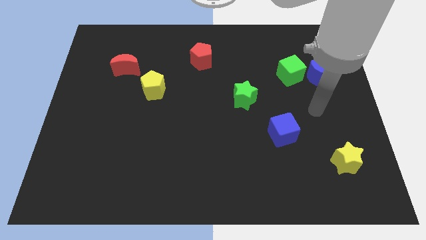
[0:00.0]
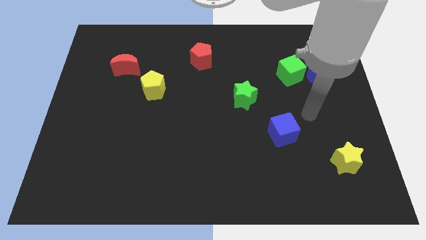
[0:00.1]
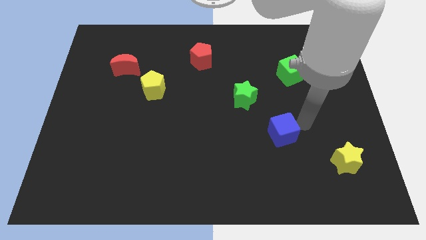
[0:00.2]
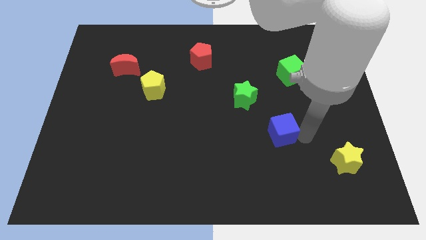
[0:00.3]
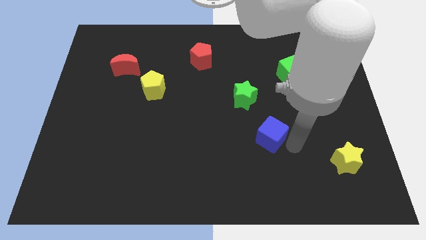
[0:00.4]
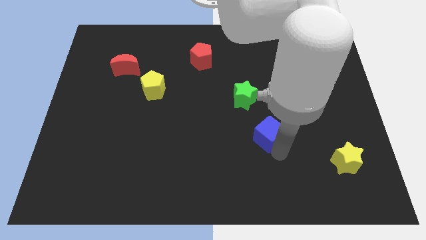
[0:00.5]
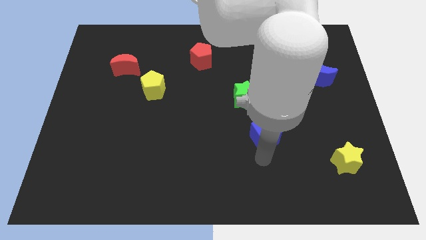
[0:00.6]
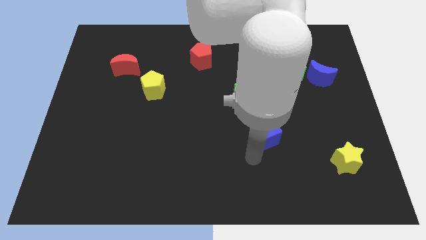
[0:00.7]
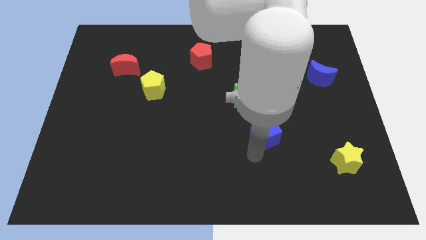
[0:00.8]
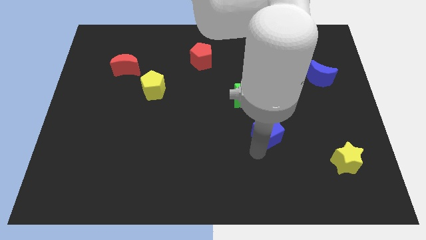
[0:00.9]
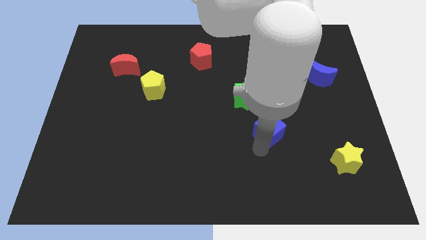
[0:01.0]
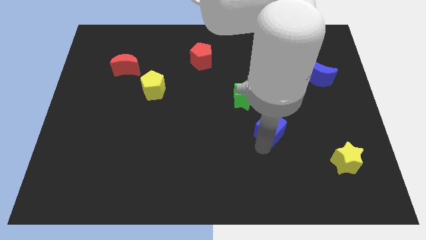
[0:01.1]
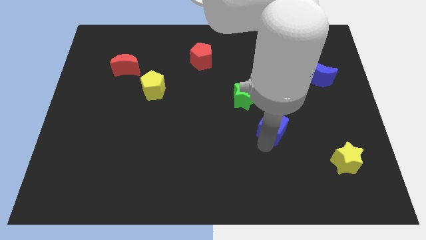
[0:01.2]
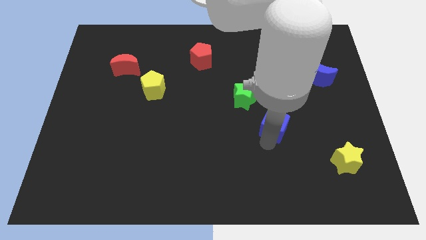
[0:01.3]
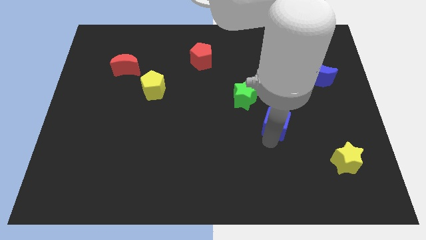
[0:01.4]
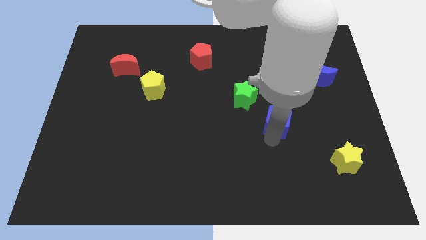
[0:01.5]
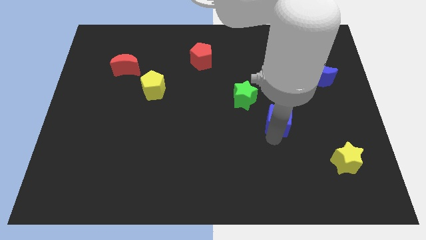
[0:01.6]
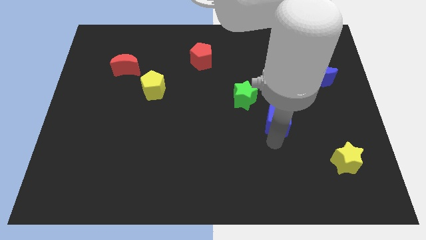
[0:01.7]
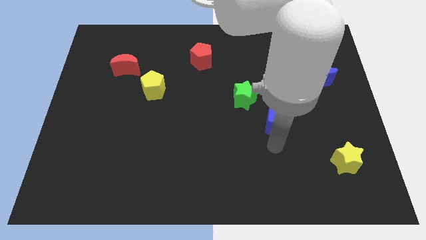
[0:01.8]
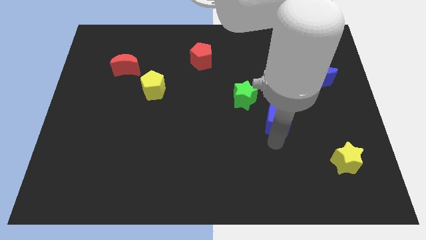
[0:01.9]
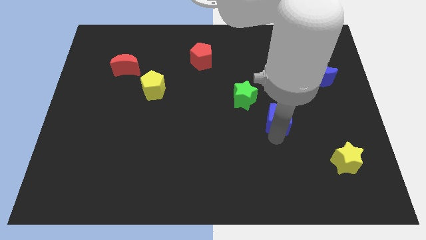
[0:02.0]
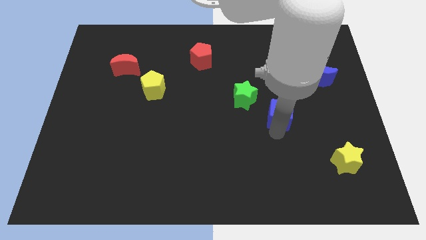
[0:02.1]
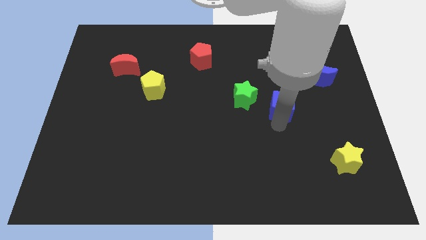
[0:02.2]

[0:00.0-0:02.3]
slide the blue cube a little bit up

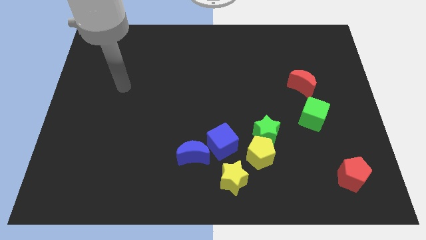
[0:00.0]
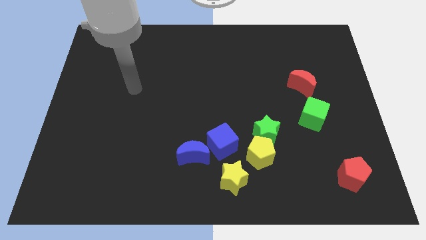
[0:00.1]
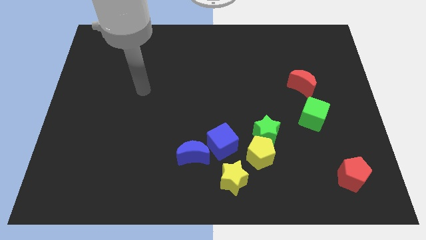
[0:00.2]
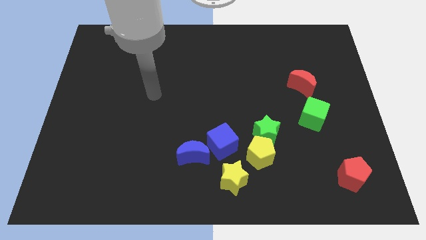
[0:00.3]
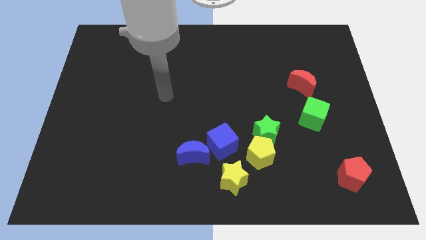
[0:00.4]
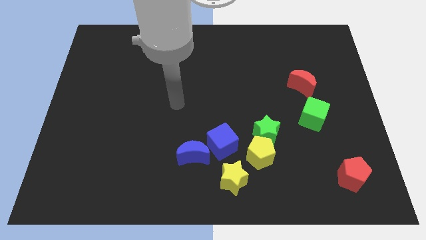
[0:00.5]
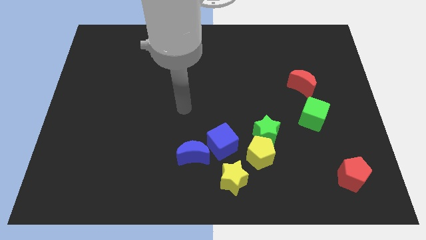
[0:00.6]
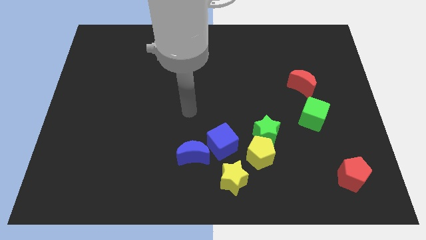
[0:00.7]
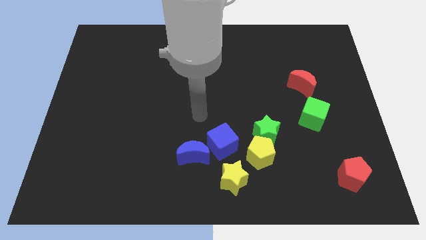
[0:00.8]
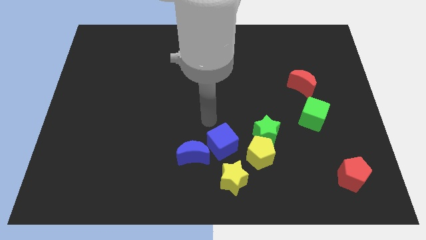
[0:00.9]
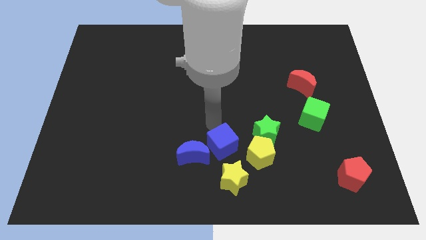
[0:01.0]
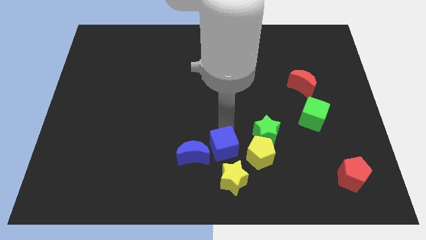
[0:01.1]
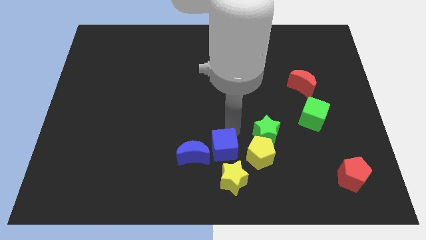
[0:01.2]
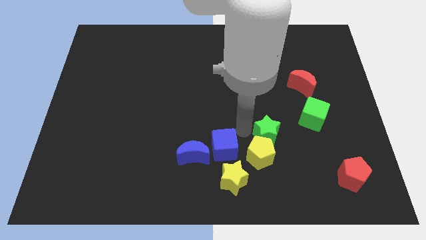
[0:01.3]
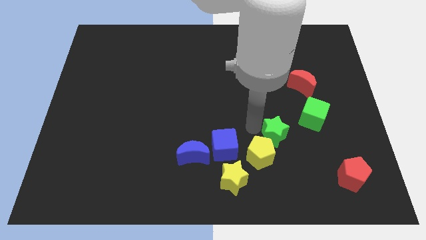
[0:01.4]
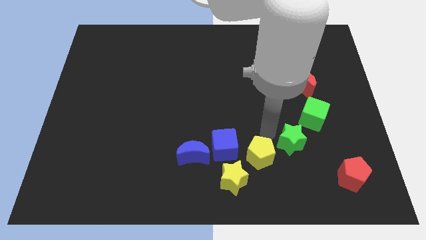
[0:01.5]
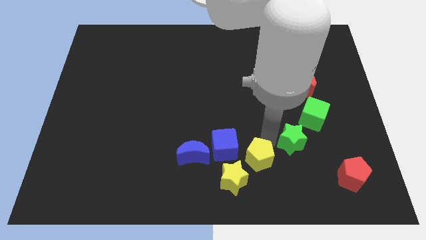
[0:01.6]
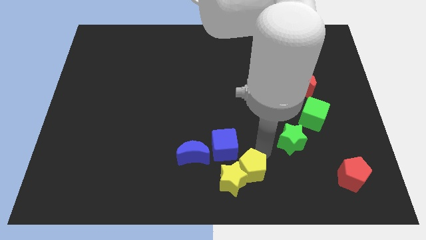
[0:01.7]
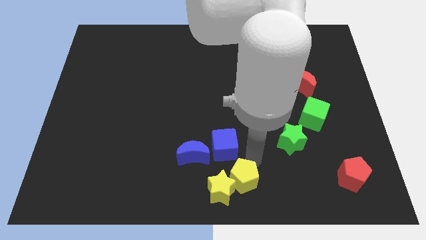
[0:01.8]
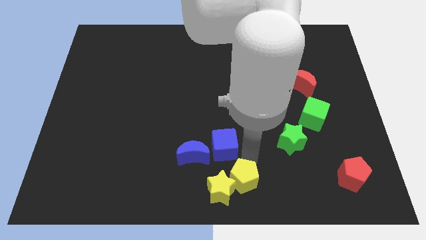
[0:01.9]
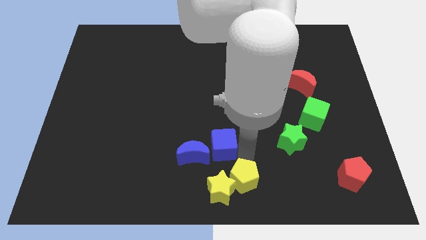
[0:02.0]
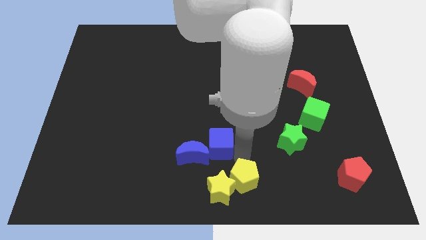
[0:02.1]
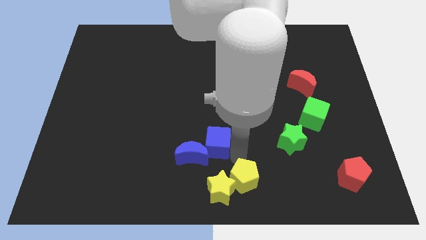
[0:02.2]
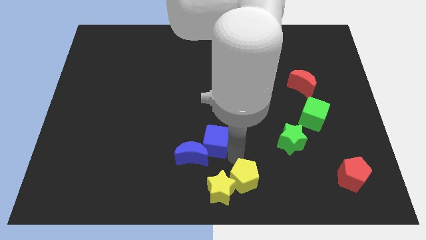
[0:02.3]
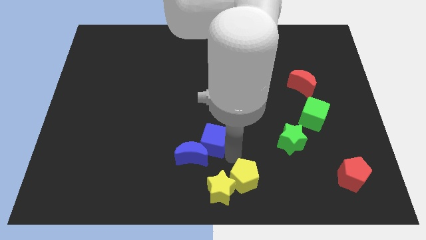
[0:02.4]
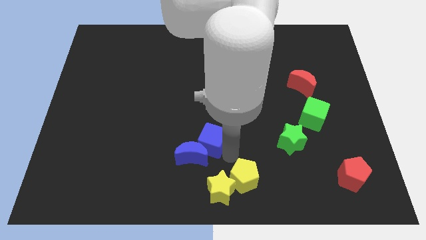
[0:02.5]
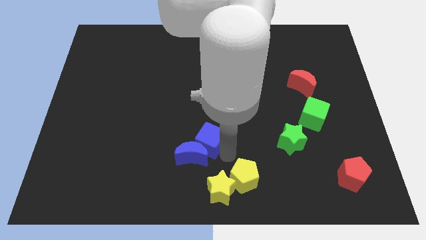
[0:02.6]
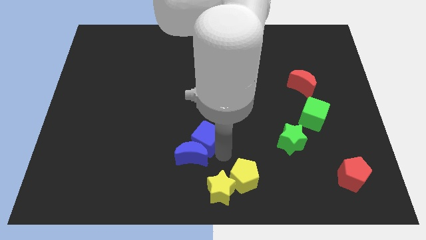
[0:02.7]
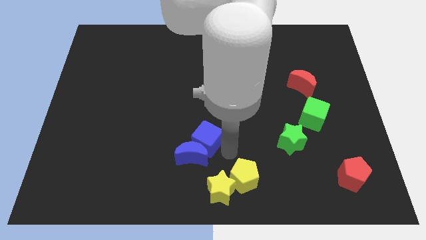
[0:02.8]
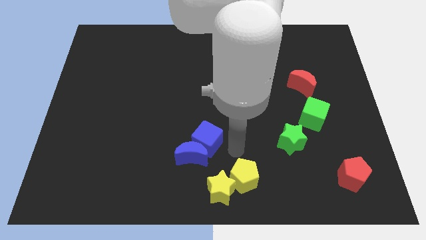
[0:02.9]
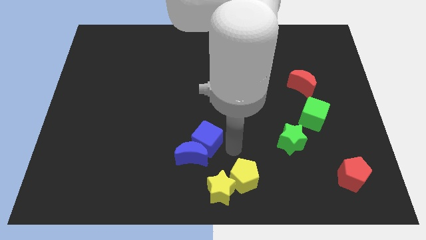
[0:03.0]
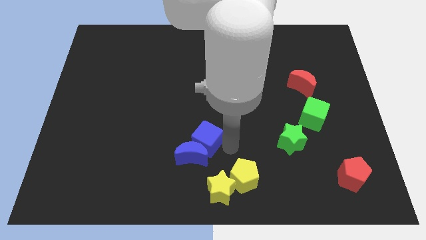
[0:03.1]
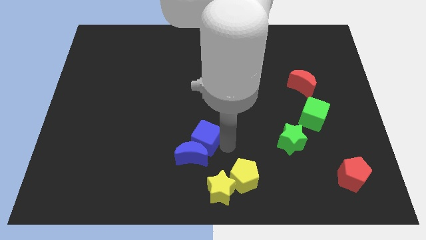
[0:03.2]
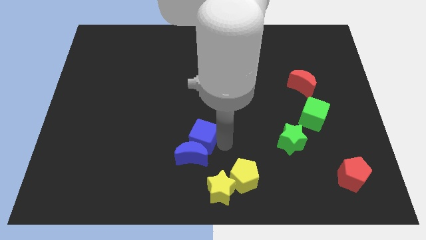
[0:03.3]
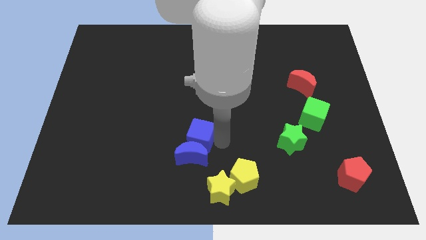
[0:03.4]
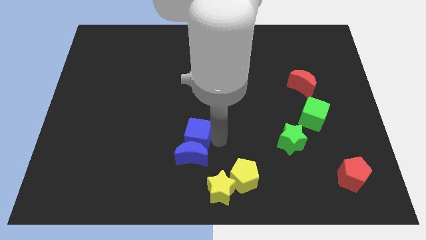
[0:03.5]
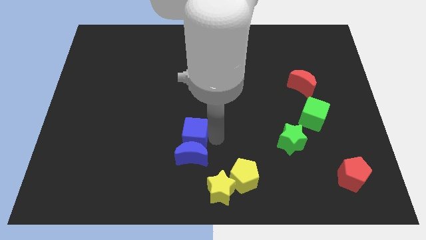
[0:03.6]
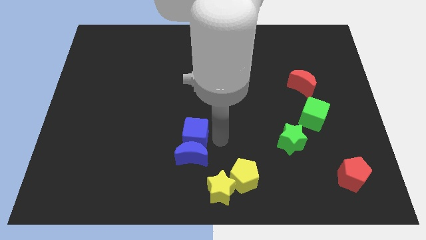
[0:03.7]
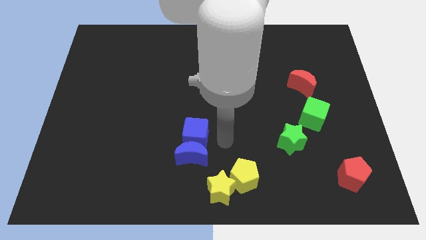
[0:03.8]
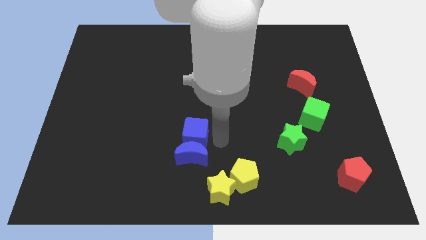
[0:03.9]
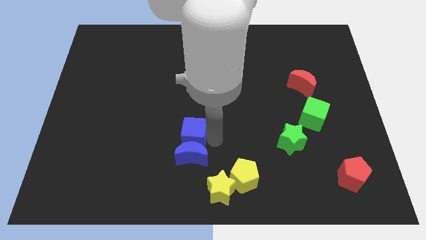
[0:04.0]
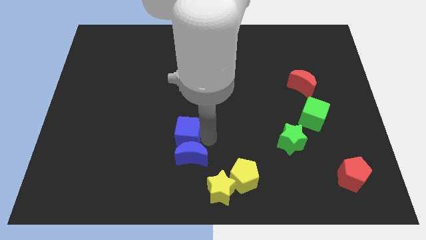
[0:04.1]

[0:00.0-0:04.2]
move the blue cube a little left

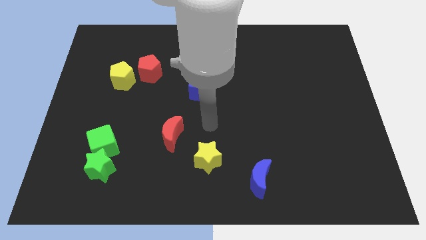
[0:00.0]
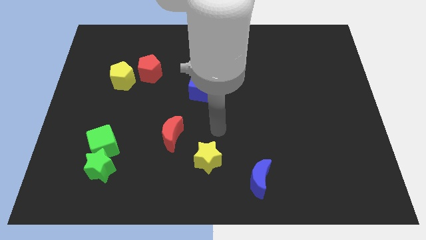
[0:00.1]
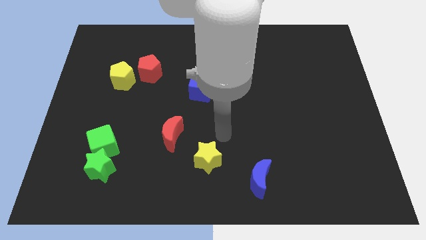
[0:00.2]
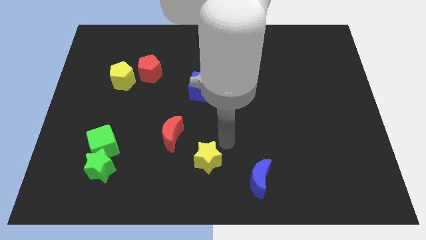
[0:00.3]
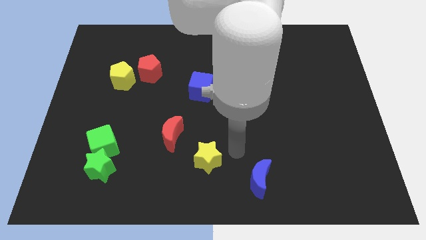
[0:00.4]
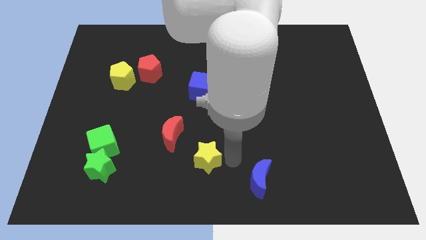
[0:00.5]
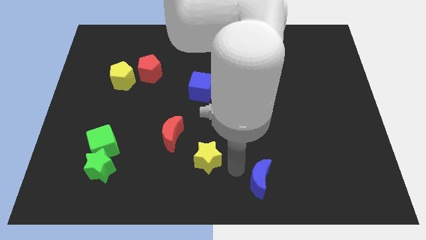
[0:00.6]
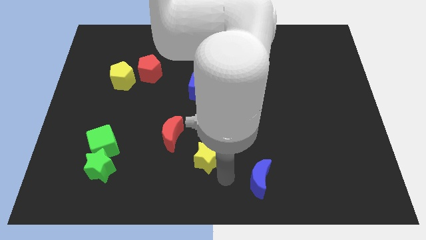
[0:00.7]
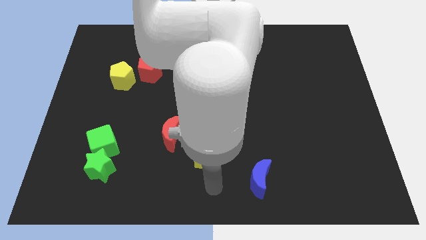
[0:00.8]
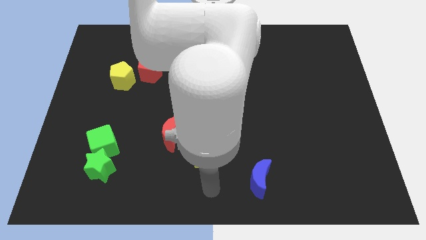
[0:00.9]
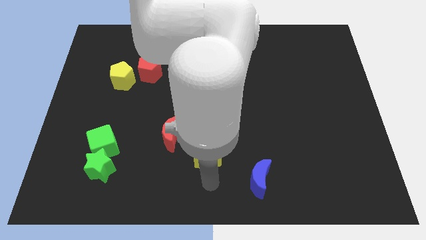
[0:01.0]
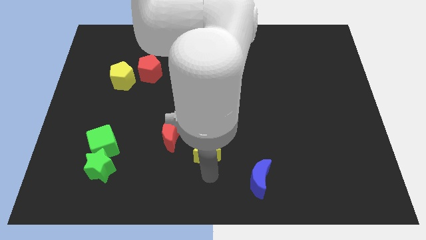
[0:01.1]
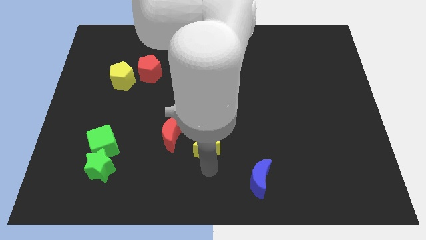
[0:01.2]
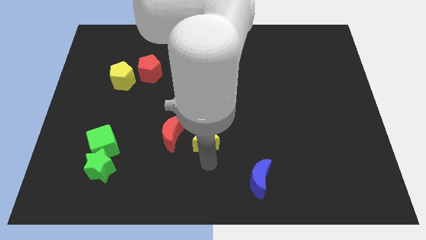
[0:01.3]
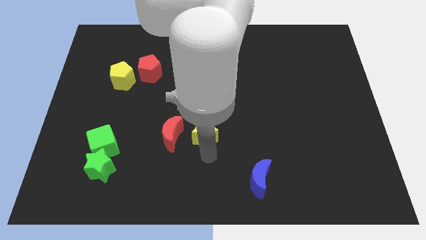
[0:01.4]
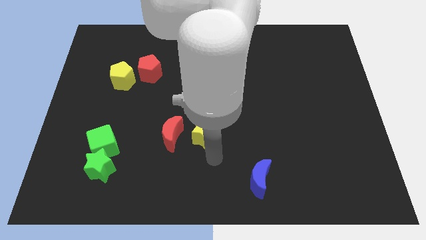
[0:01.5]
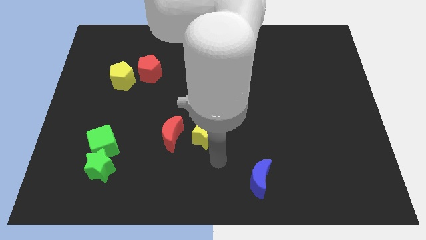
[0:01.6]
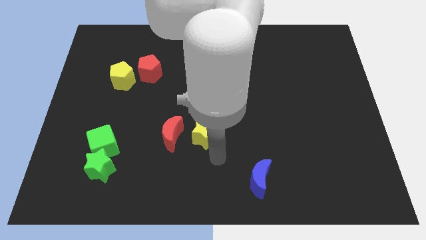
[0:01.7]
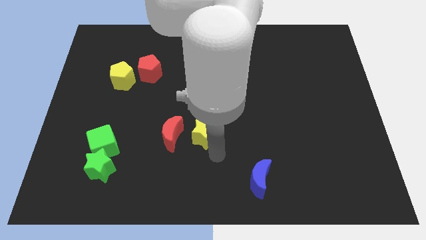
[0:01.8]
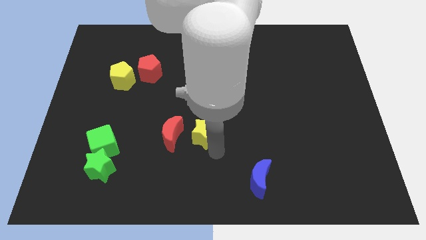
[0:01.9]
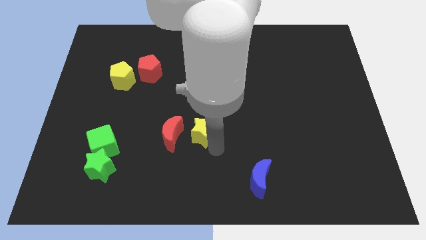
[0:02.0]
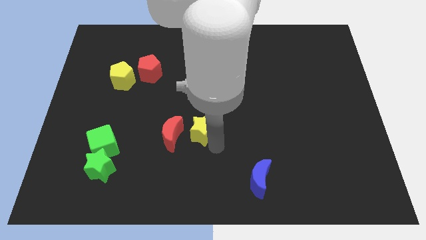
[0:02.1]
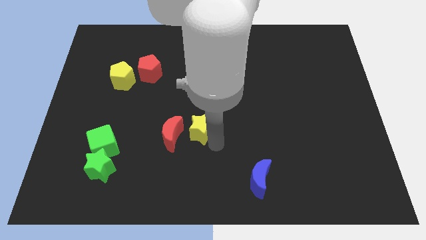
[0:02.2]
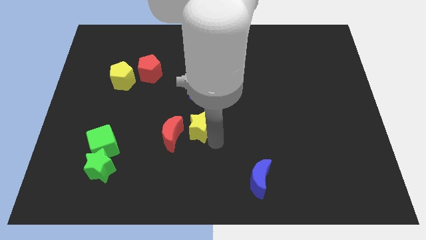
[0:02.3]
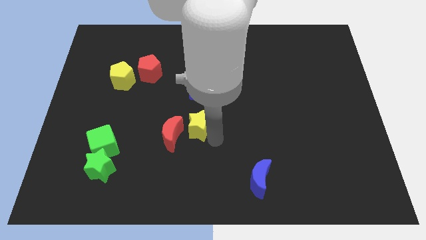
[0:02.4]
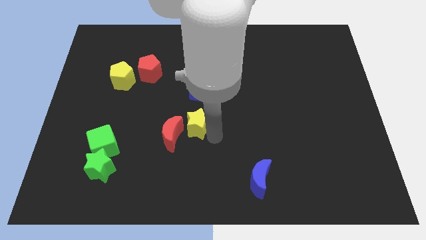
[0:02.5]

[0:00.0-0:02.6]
move the yellow star slightly up and then left
